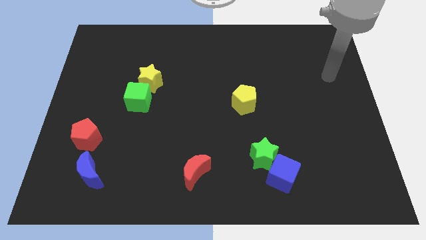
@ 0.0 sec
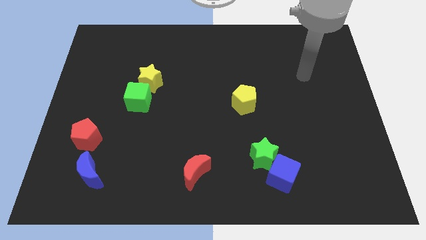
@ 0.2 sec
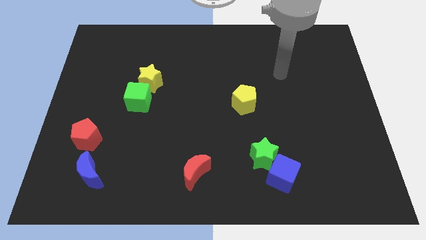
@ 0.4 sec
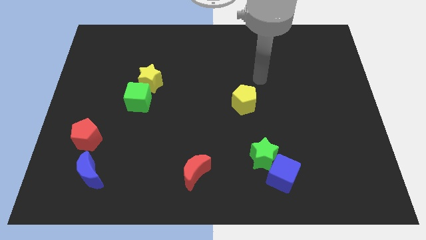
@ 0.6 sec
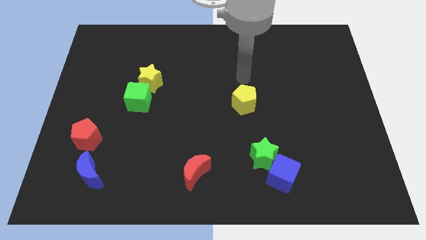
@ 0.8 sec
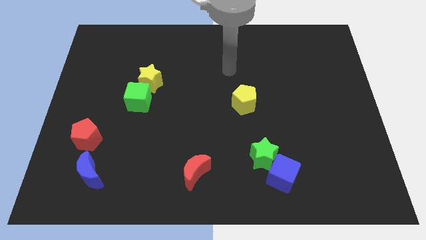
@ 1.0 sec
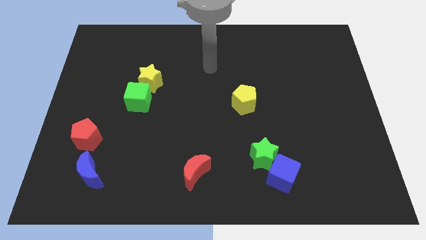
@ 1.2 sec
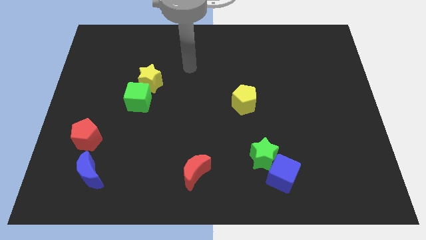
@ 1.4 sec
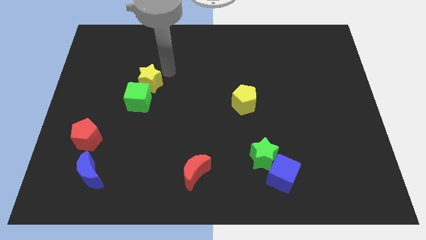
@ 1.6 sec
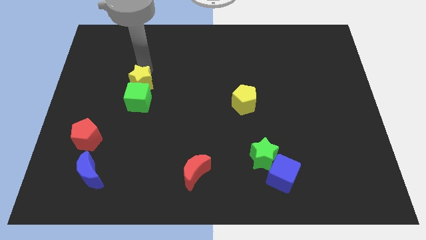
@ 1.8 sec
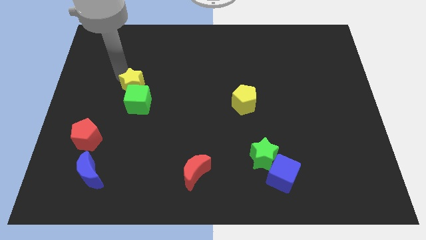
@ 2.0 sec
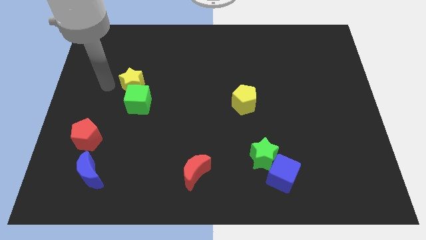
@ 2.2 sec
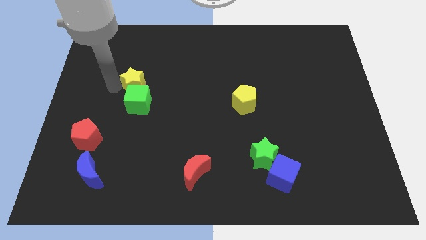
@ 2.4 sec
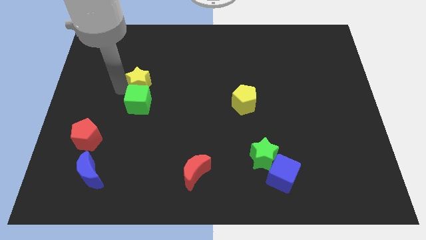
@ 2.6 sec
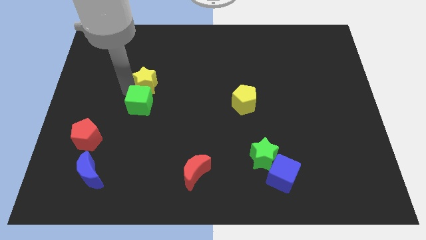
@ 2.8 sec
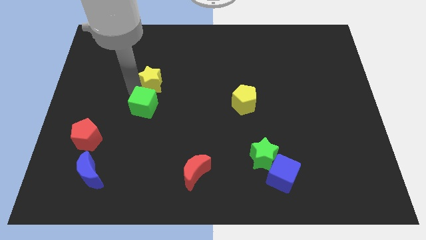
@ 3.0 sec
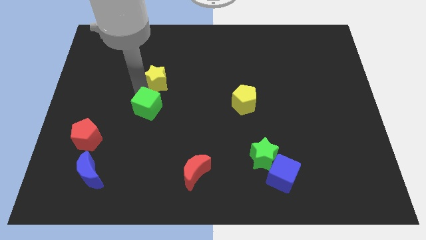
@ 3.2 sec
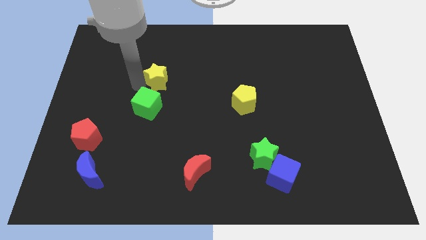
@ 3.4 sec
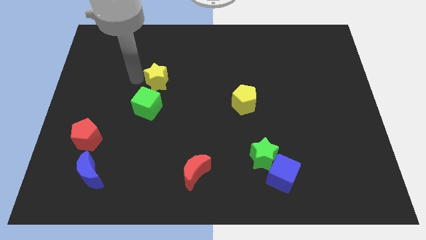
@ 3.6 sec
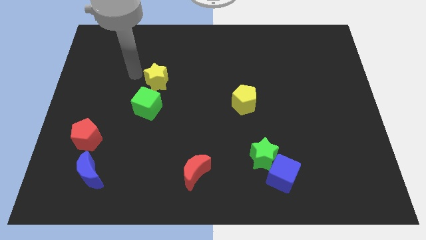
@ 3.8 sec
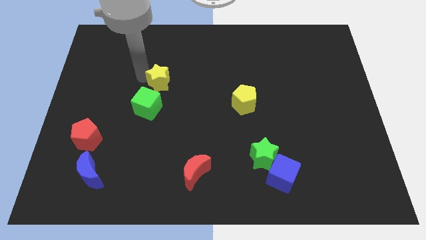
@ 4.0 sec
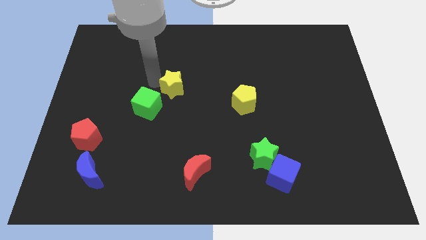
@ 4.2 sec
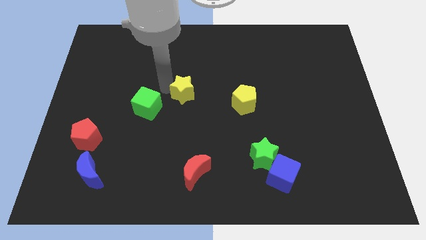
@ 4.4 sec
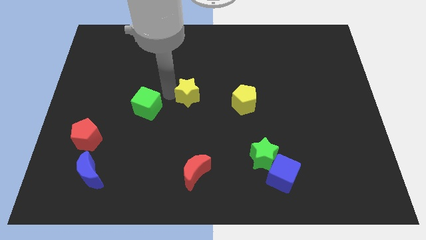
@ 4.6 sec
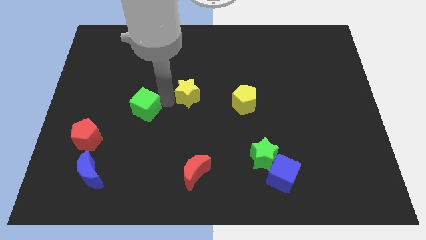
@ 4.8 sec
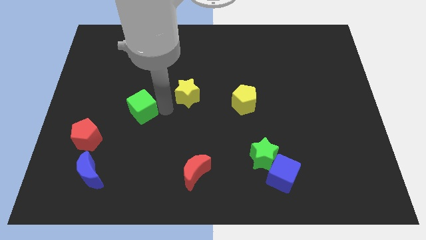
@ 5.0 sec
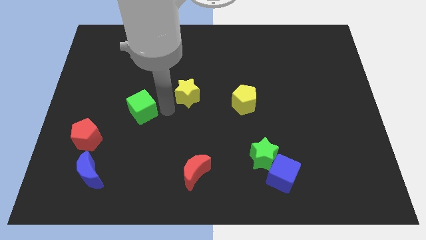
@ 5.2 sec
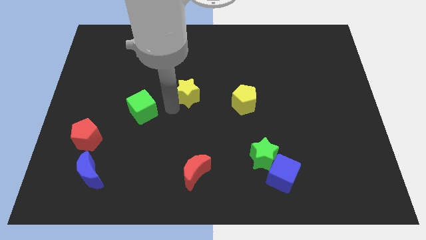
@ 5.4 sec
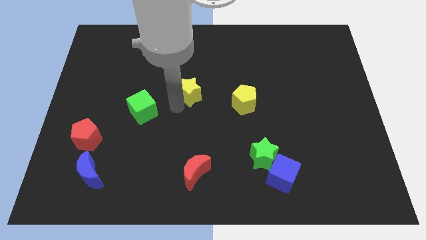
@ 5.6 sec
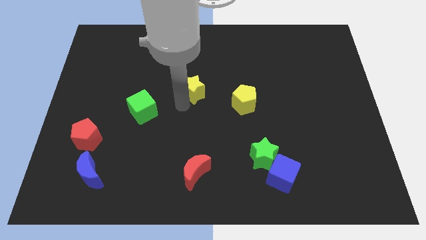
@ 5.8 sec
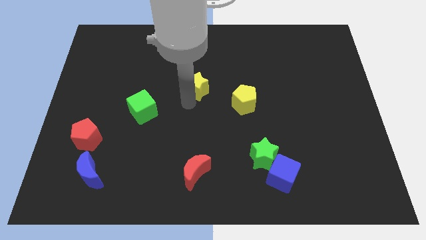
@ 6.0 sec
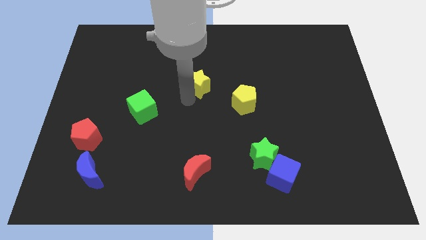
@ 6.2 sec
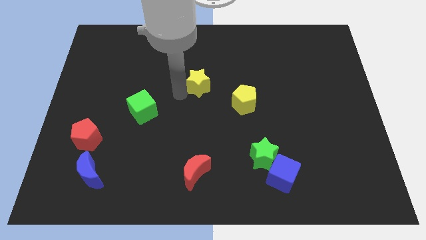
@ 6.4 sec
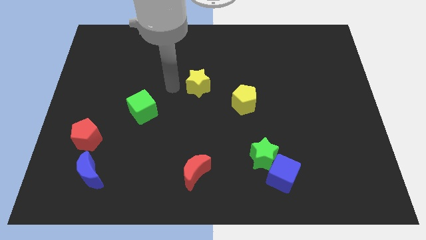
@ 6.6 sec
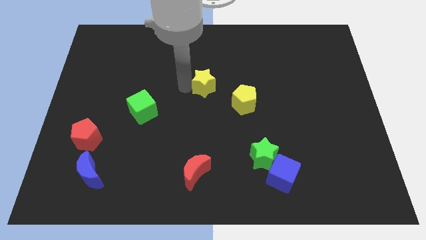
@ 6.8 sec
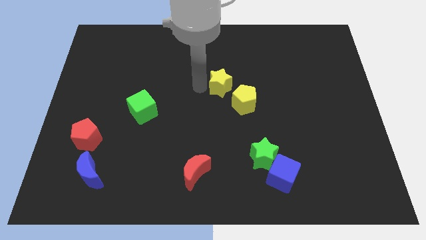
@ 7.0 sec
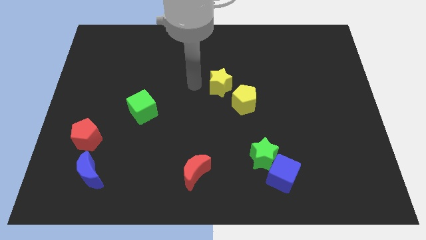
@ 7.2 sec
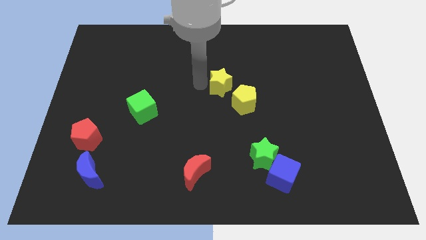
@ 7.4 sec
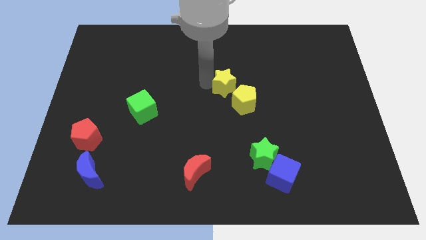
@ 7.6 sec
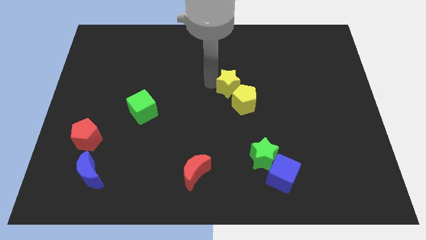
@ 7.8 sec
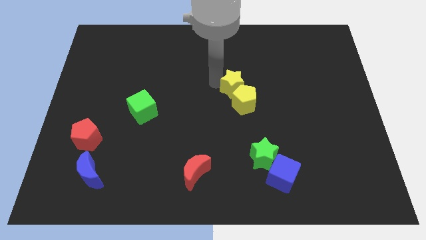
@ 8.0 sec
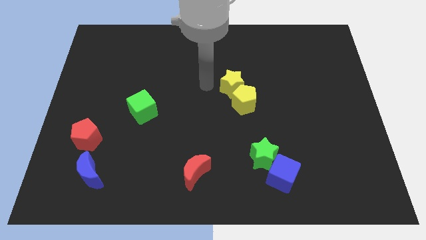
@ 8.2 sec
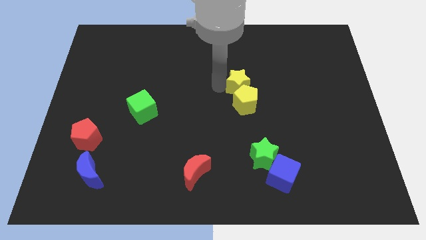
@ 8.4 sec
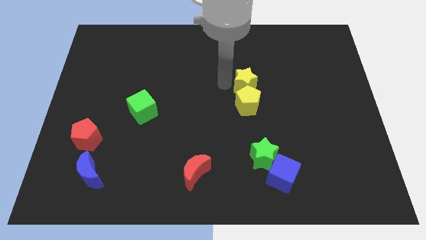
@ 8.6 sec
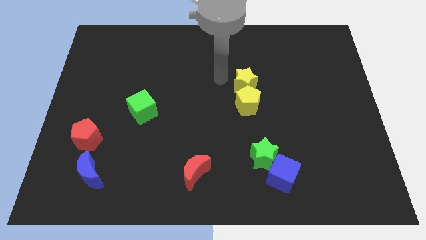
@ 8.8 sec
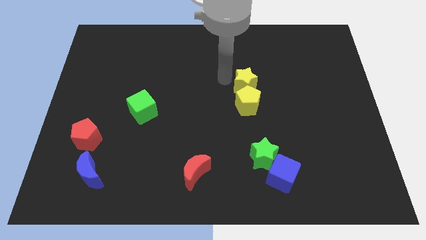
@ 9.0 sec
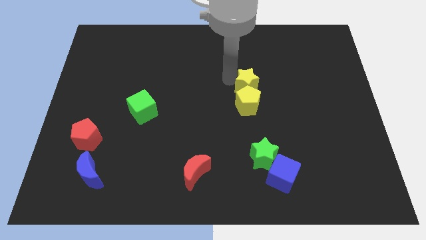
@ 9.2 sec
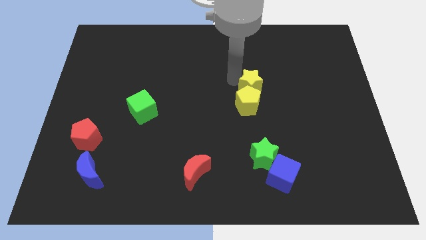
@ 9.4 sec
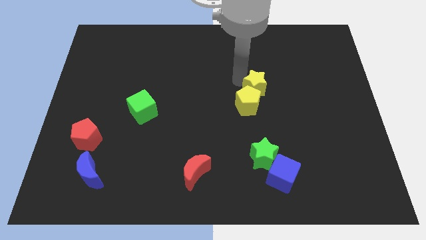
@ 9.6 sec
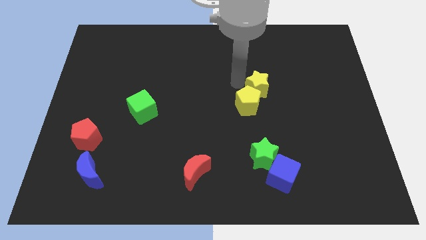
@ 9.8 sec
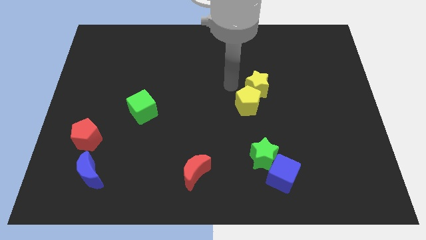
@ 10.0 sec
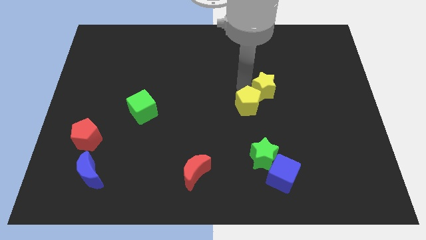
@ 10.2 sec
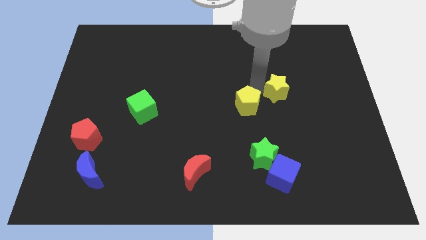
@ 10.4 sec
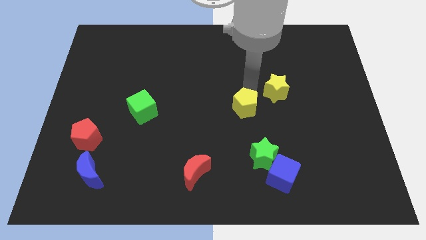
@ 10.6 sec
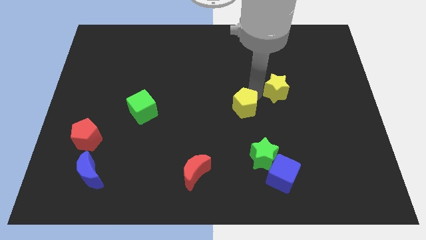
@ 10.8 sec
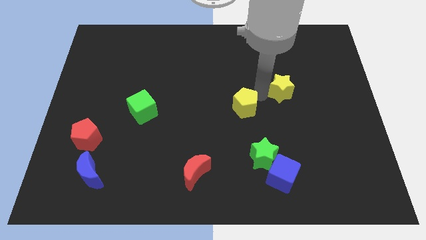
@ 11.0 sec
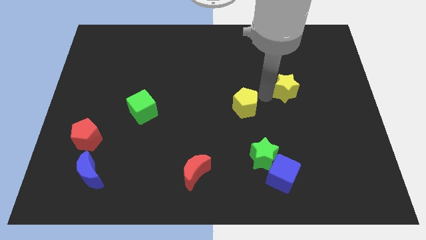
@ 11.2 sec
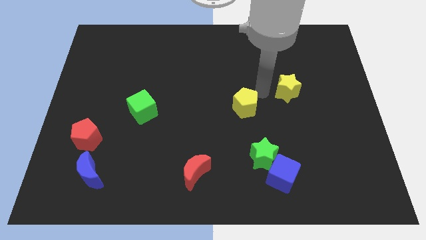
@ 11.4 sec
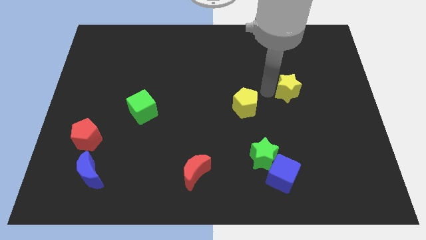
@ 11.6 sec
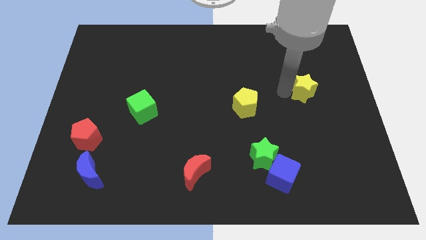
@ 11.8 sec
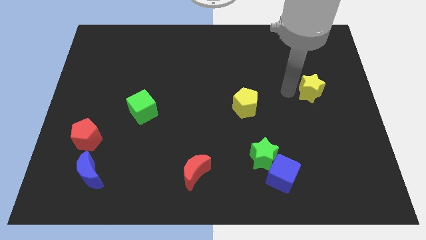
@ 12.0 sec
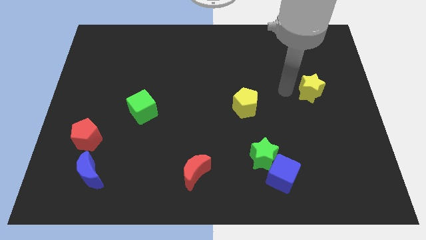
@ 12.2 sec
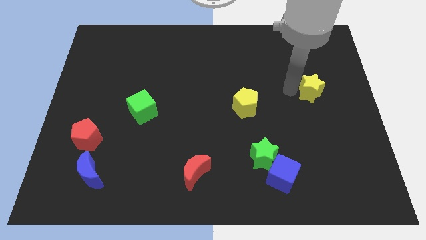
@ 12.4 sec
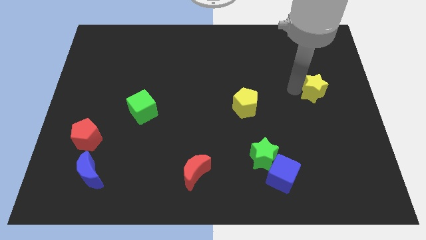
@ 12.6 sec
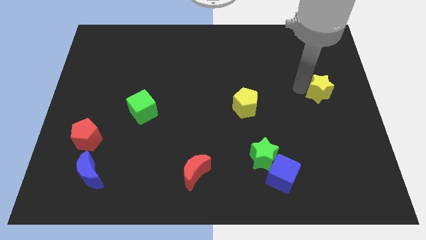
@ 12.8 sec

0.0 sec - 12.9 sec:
push the yellow star to the right side
